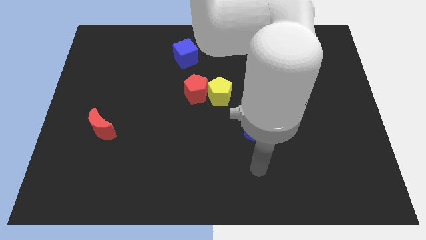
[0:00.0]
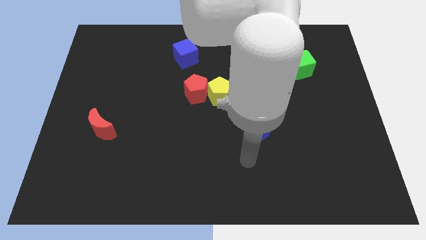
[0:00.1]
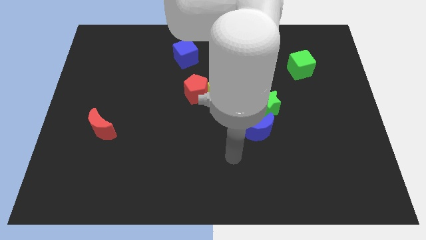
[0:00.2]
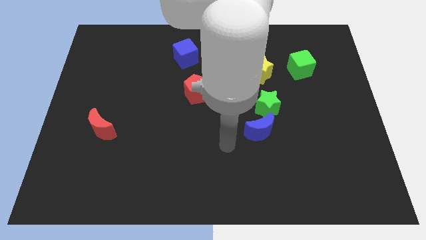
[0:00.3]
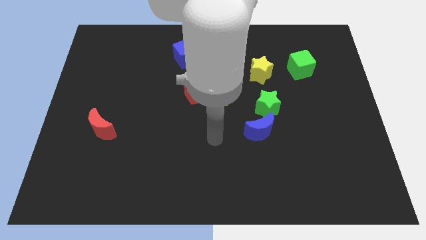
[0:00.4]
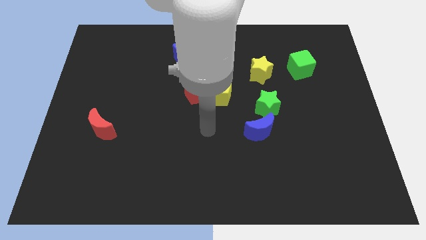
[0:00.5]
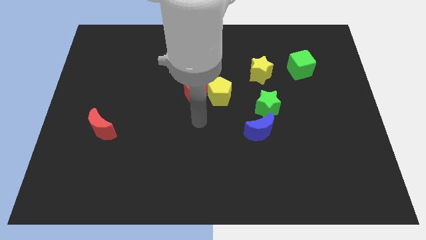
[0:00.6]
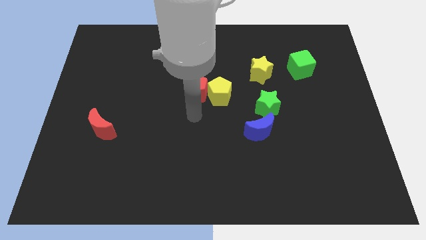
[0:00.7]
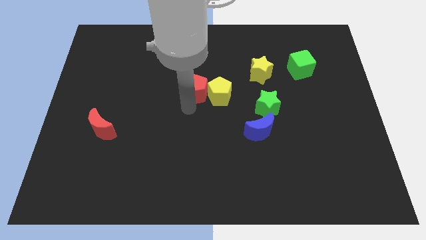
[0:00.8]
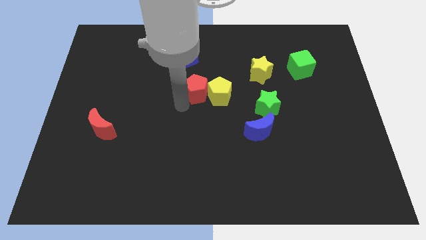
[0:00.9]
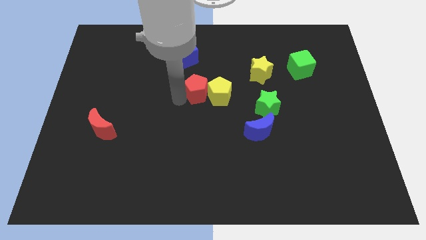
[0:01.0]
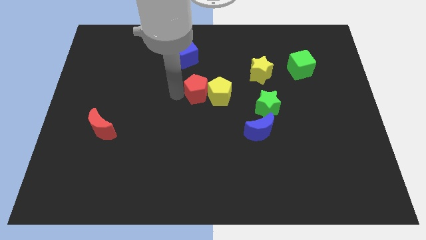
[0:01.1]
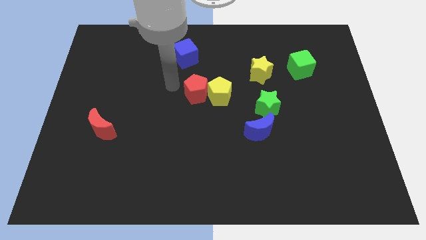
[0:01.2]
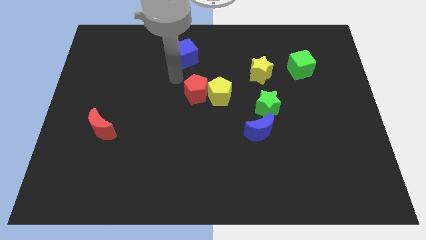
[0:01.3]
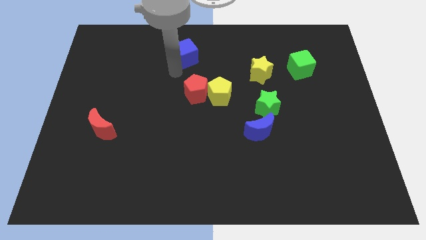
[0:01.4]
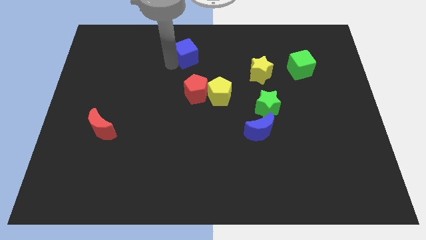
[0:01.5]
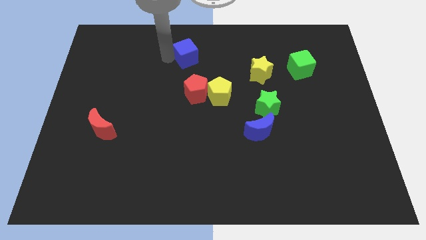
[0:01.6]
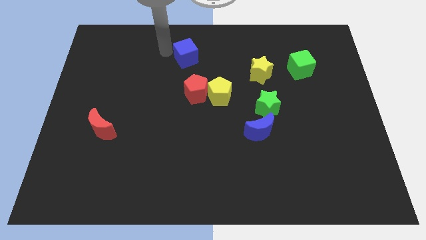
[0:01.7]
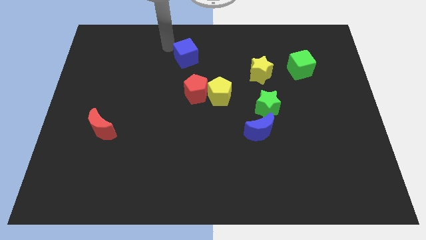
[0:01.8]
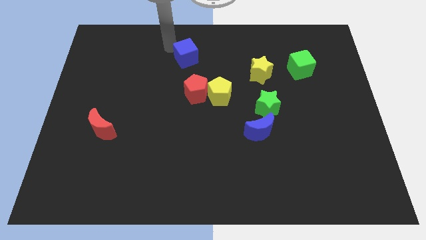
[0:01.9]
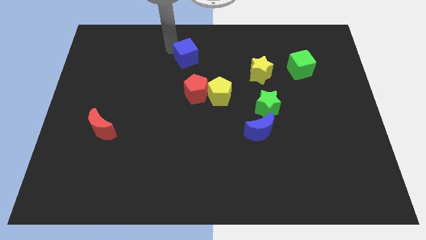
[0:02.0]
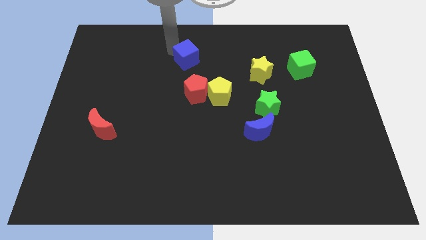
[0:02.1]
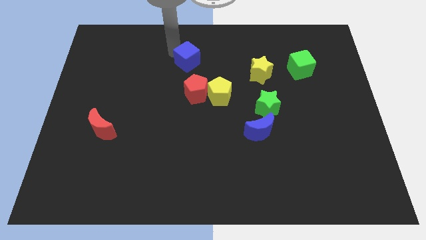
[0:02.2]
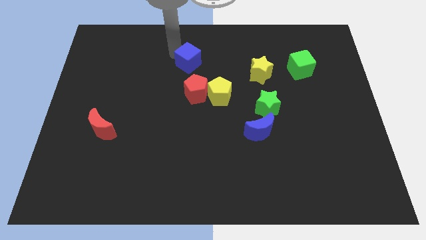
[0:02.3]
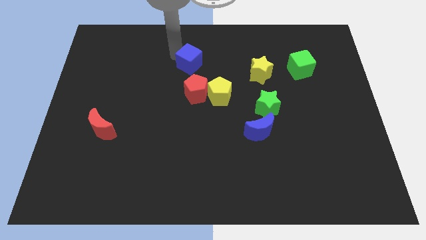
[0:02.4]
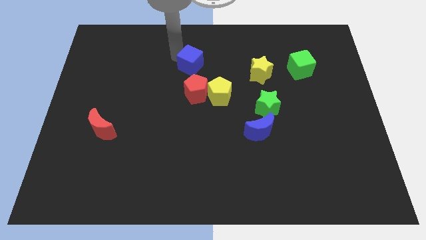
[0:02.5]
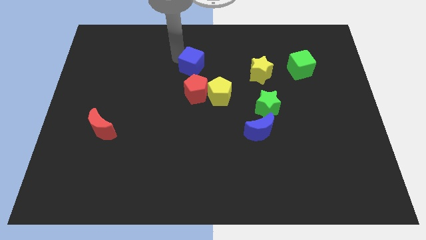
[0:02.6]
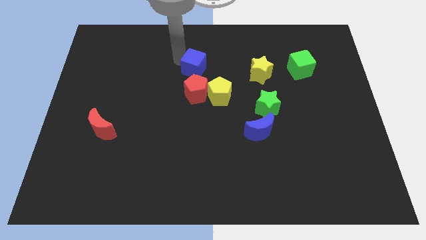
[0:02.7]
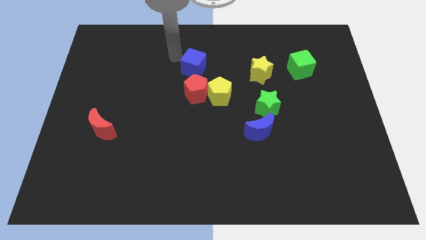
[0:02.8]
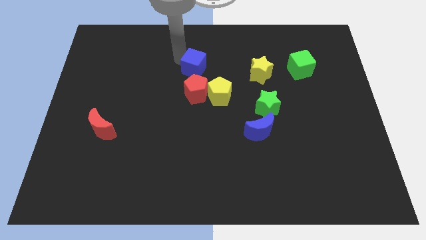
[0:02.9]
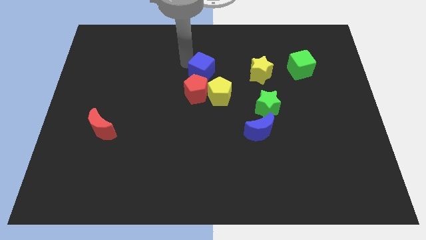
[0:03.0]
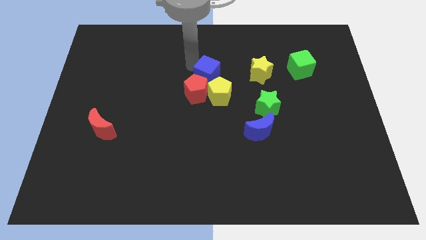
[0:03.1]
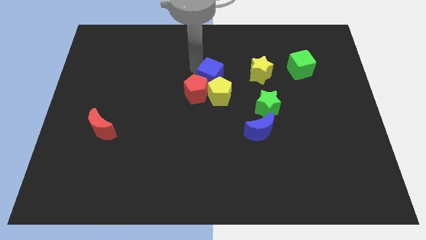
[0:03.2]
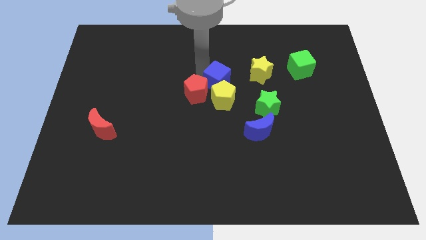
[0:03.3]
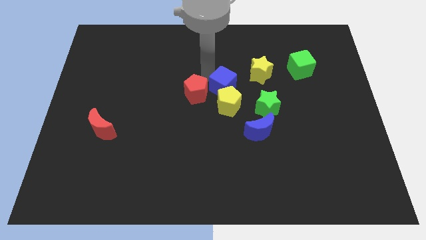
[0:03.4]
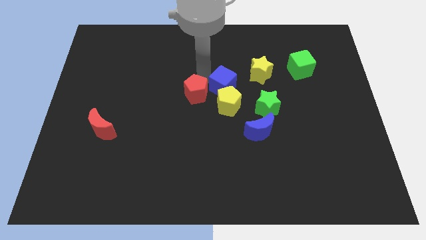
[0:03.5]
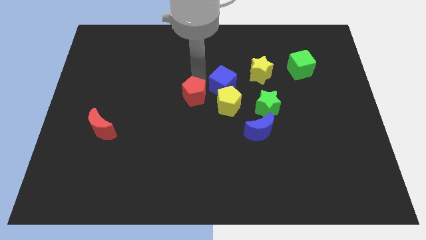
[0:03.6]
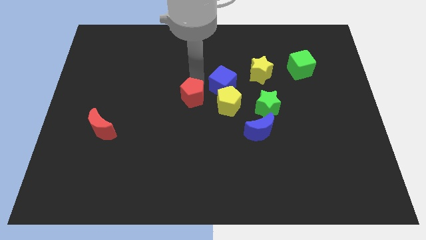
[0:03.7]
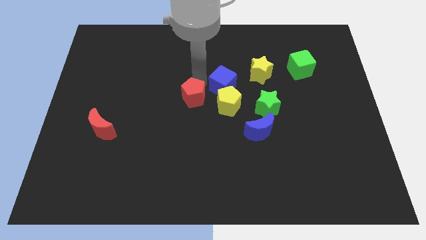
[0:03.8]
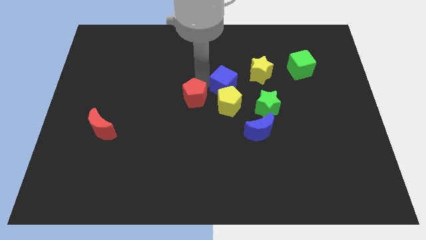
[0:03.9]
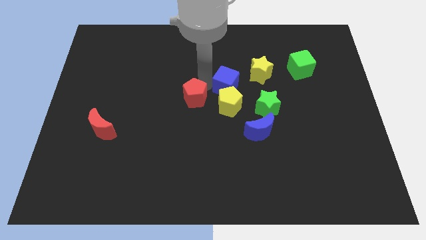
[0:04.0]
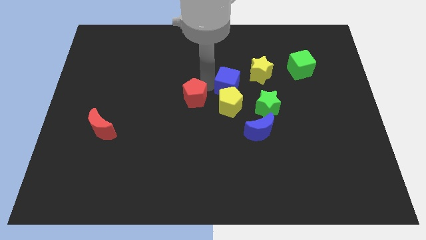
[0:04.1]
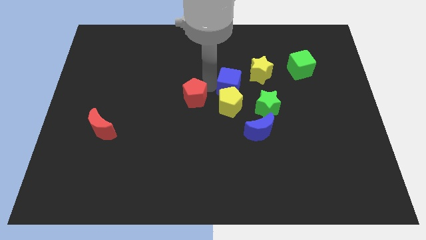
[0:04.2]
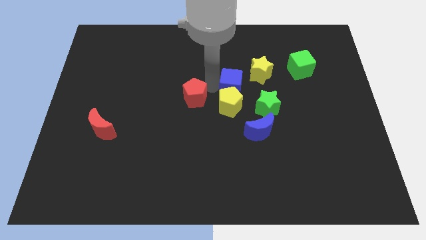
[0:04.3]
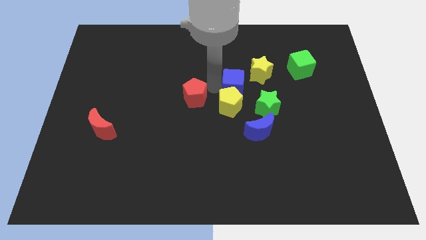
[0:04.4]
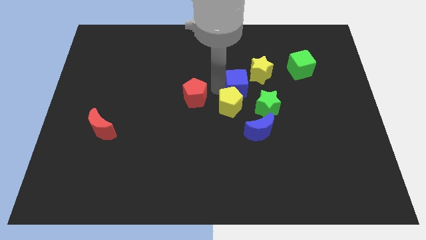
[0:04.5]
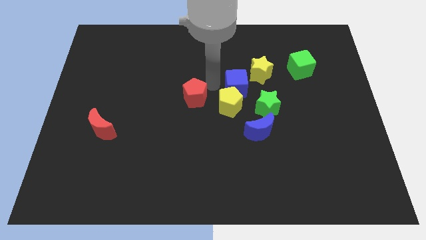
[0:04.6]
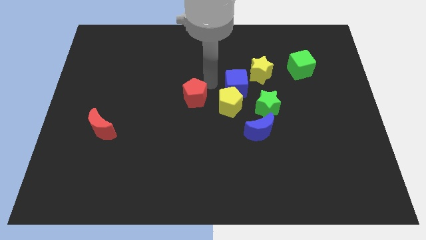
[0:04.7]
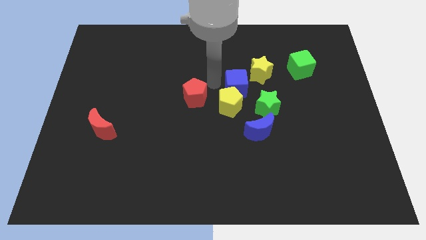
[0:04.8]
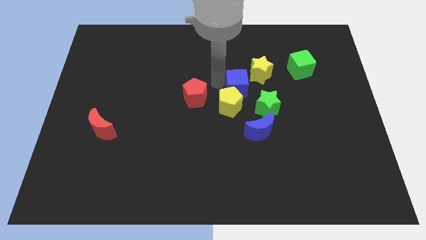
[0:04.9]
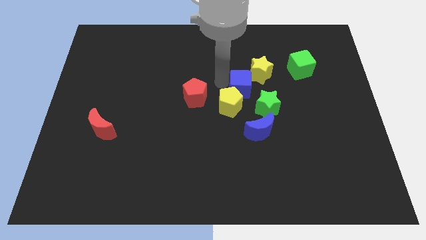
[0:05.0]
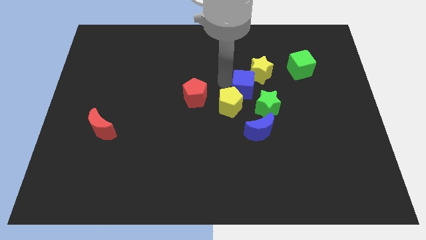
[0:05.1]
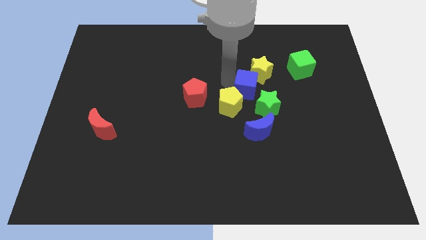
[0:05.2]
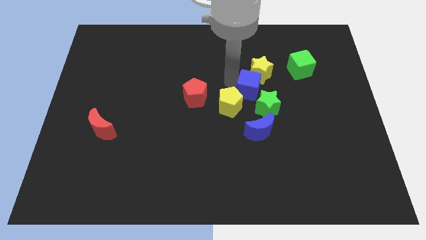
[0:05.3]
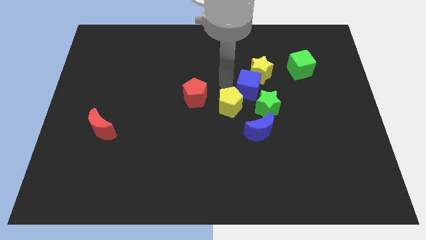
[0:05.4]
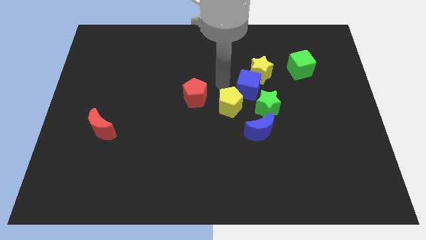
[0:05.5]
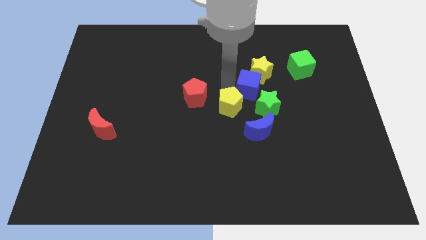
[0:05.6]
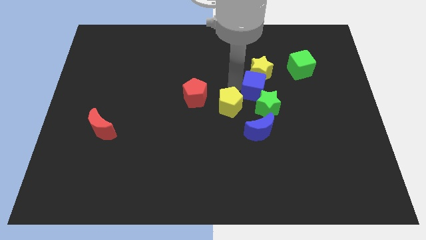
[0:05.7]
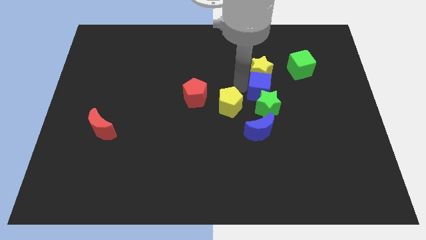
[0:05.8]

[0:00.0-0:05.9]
slide the blue cube downwards and to the right diagonally

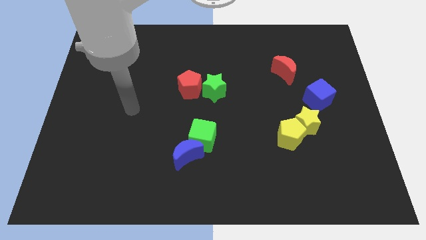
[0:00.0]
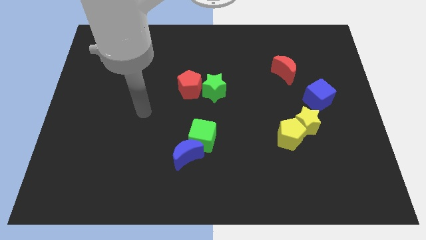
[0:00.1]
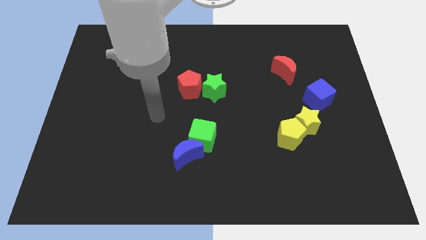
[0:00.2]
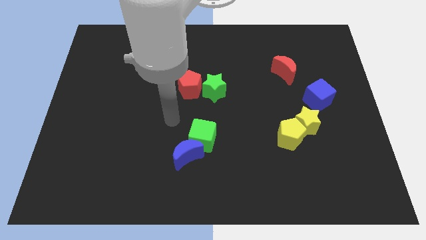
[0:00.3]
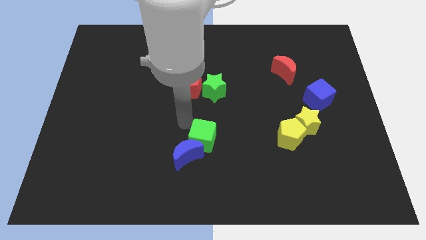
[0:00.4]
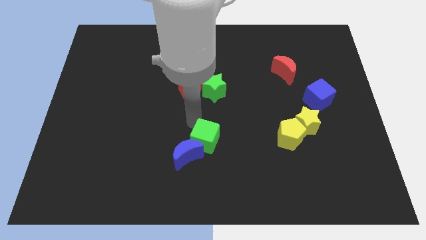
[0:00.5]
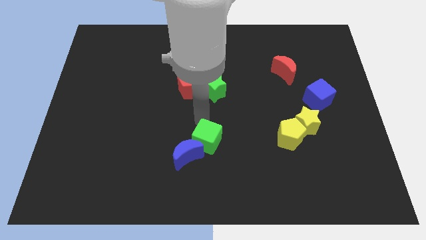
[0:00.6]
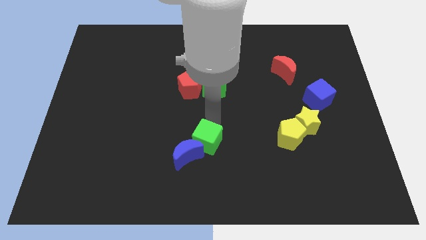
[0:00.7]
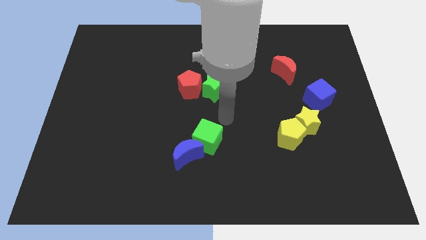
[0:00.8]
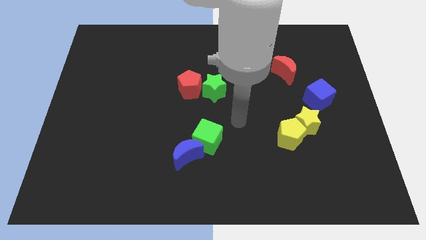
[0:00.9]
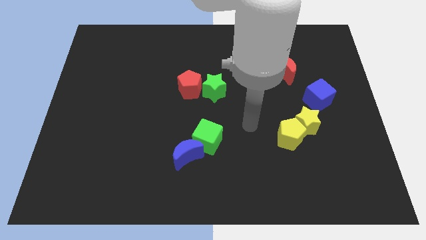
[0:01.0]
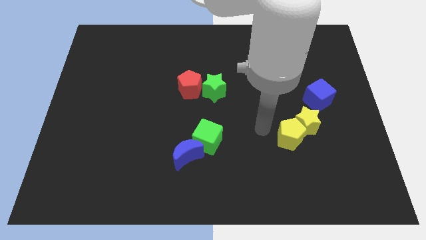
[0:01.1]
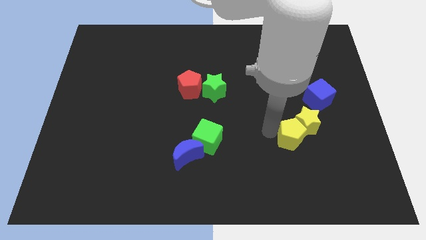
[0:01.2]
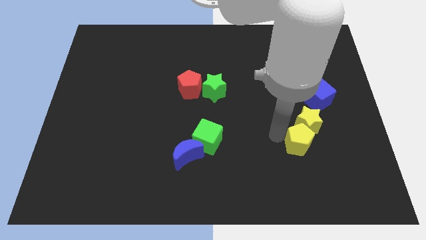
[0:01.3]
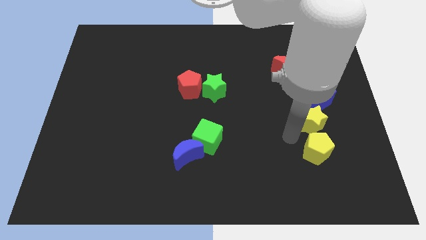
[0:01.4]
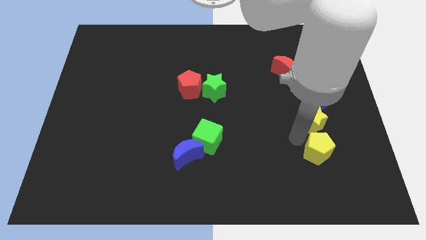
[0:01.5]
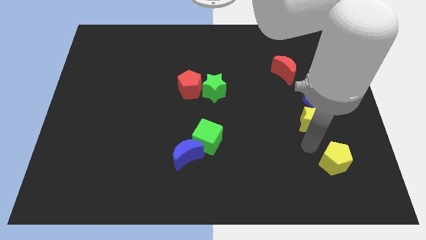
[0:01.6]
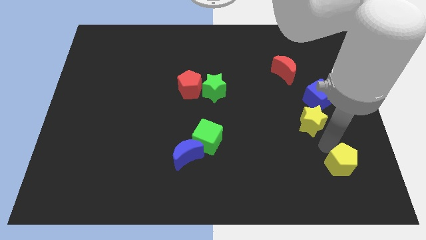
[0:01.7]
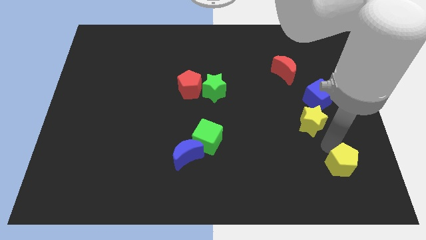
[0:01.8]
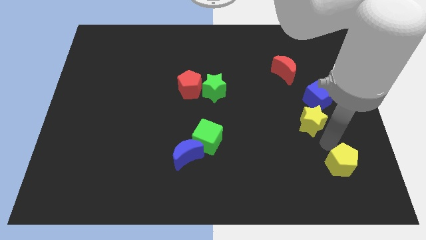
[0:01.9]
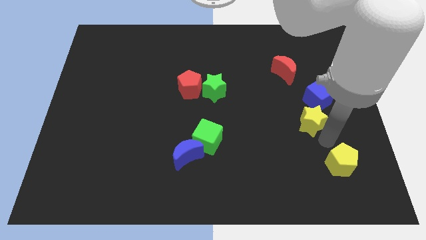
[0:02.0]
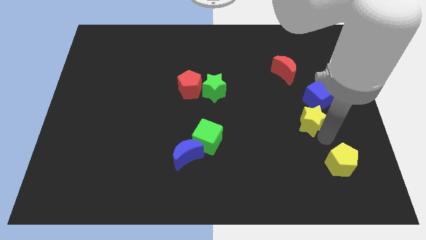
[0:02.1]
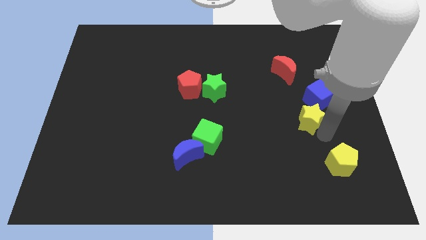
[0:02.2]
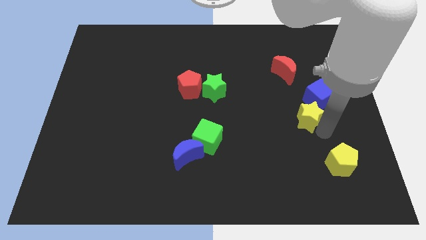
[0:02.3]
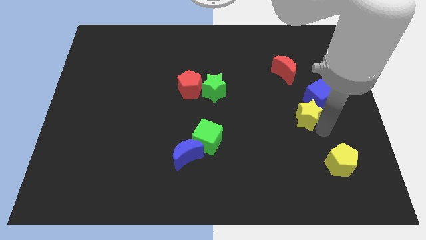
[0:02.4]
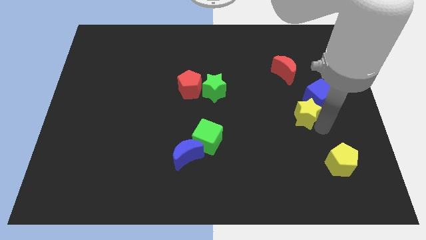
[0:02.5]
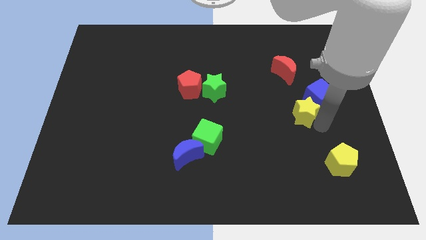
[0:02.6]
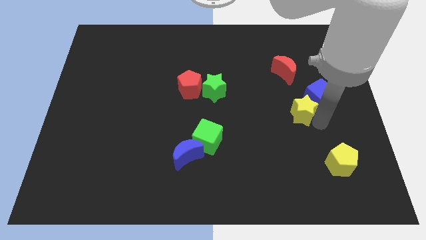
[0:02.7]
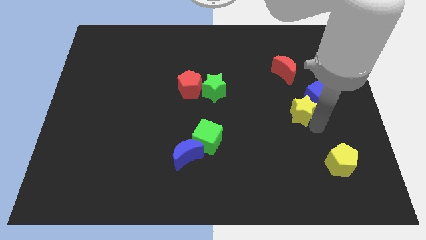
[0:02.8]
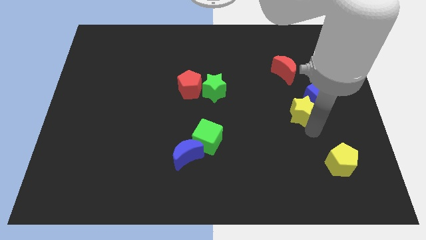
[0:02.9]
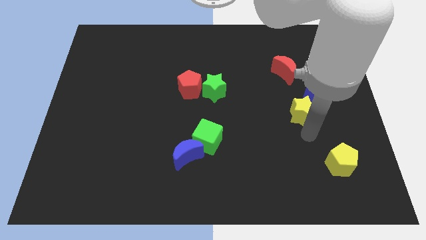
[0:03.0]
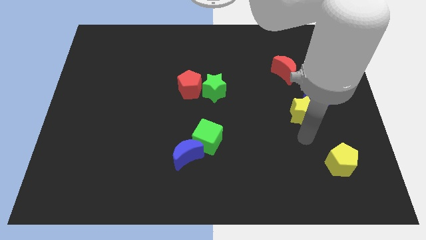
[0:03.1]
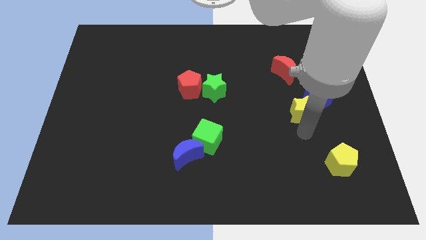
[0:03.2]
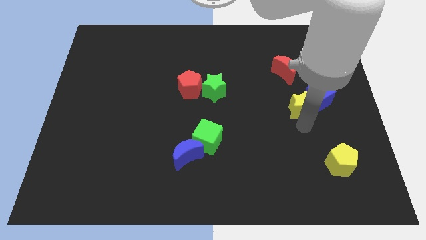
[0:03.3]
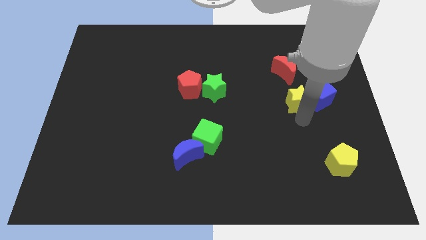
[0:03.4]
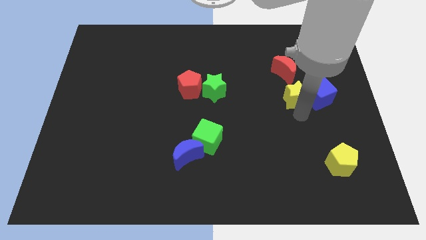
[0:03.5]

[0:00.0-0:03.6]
slide the yellow star up somewhat
